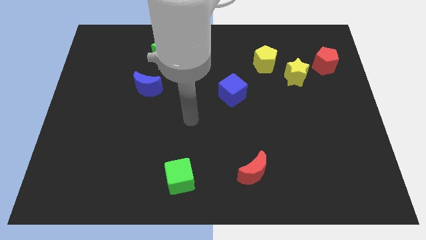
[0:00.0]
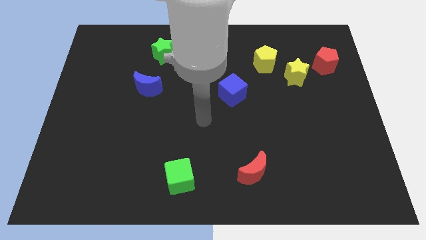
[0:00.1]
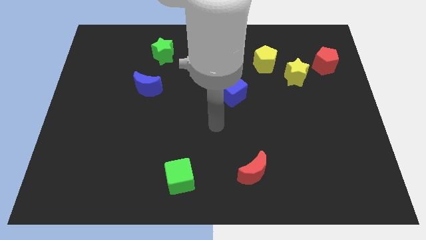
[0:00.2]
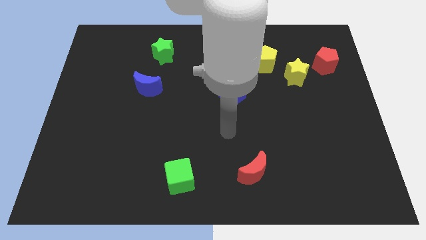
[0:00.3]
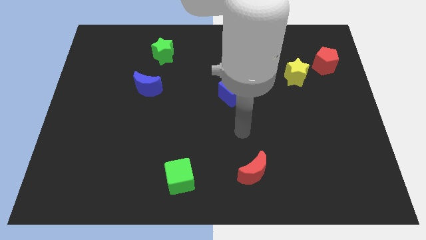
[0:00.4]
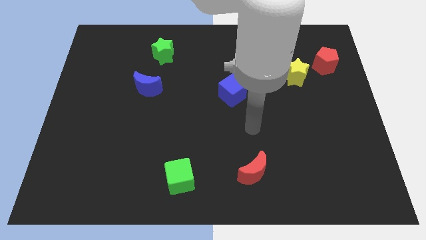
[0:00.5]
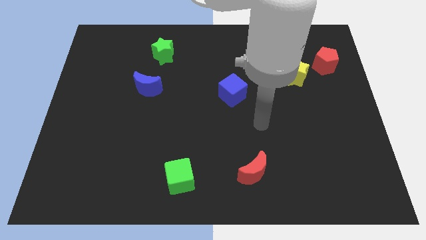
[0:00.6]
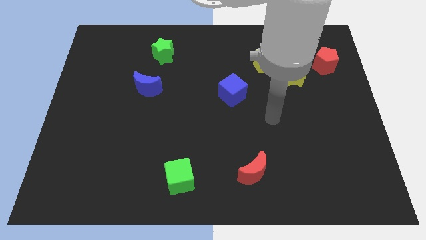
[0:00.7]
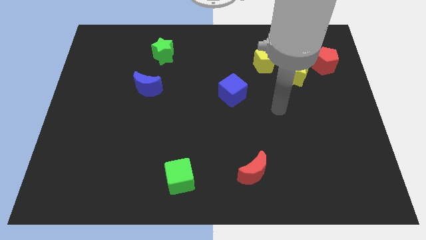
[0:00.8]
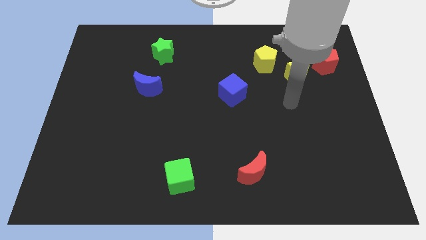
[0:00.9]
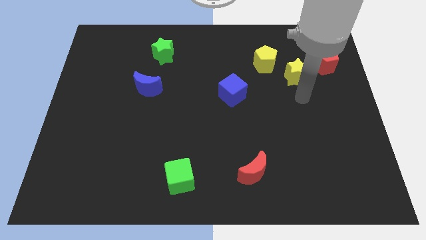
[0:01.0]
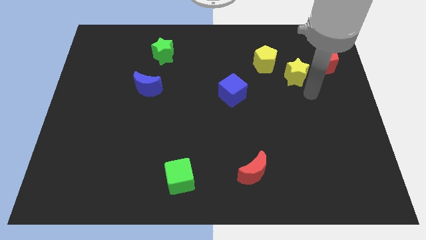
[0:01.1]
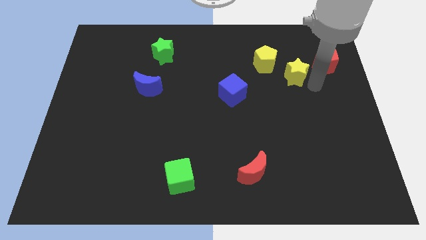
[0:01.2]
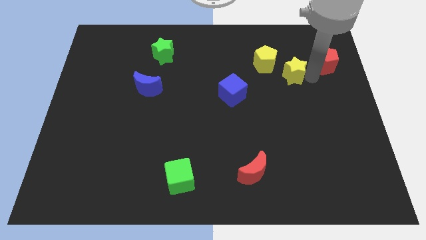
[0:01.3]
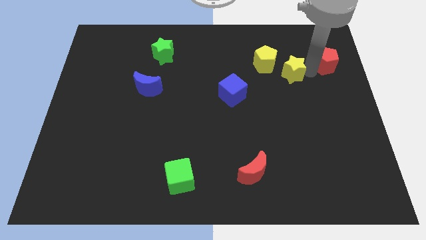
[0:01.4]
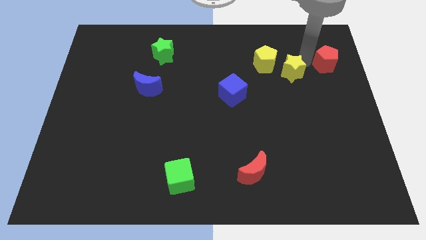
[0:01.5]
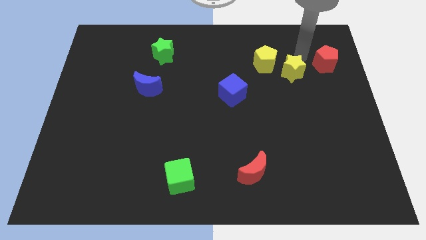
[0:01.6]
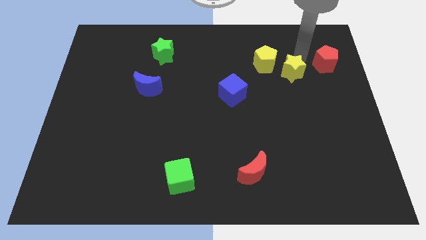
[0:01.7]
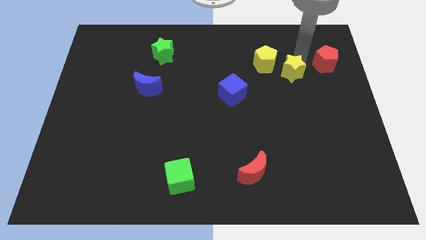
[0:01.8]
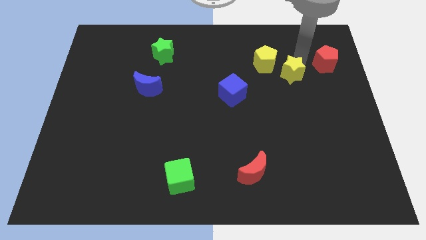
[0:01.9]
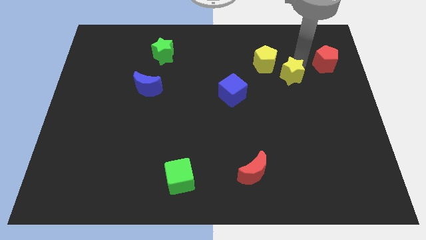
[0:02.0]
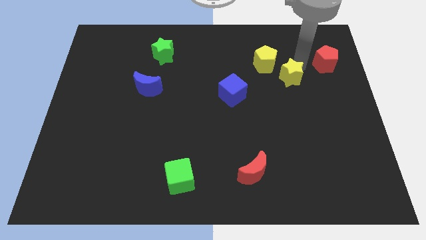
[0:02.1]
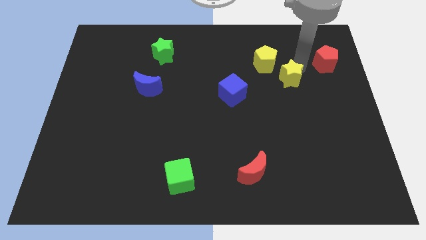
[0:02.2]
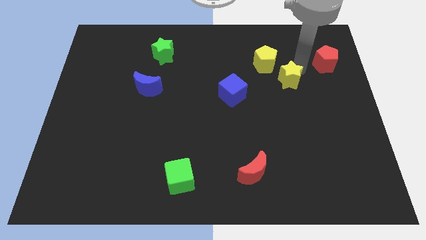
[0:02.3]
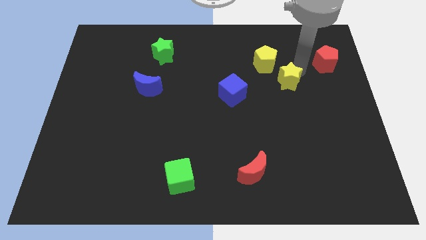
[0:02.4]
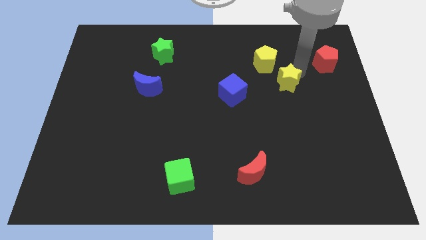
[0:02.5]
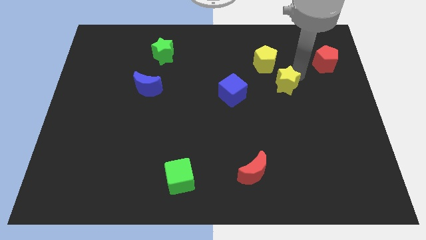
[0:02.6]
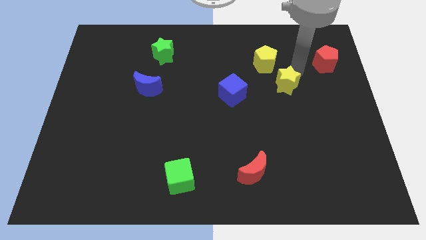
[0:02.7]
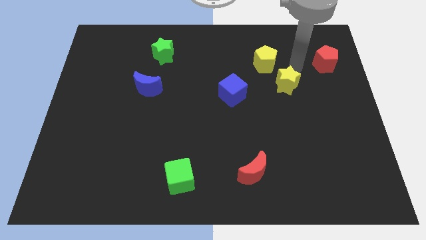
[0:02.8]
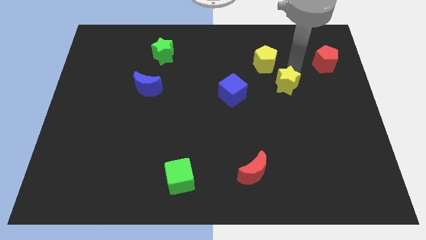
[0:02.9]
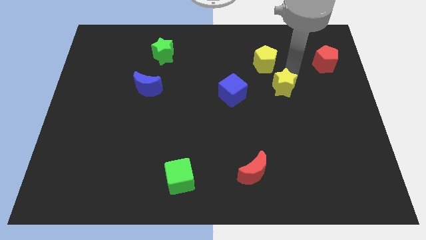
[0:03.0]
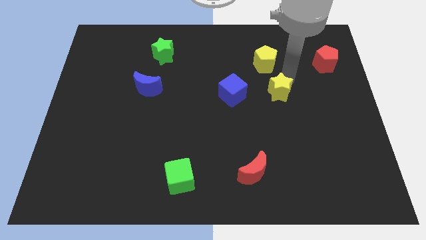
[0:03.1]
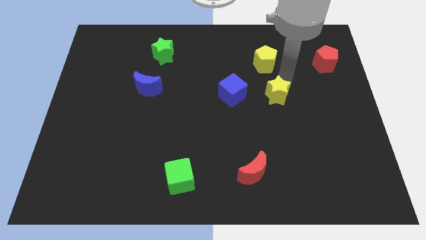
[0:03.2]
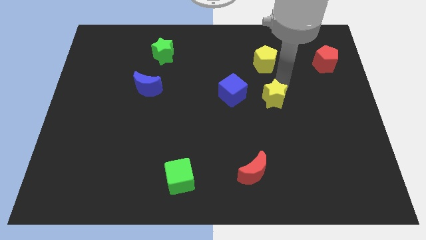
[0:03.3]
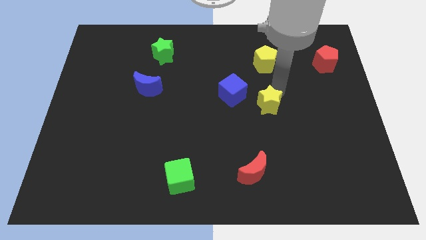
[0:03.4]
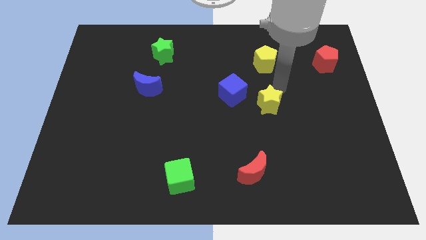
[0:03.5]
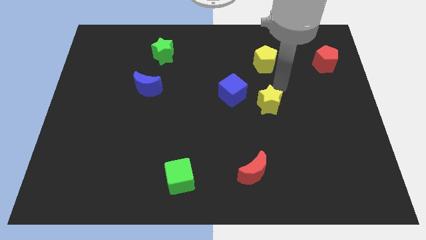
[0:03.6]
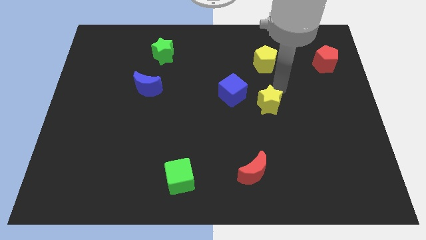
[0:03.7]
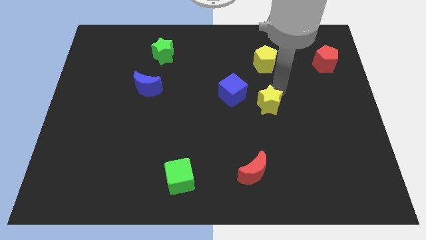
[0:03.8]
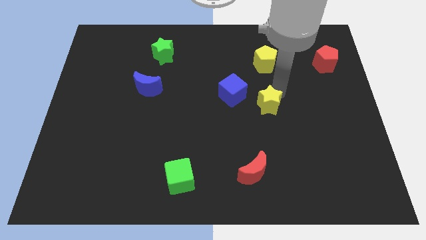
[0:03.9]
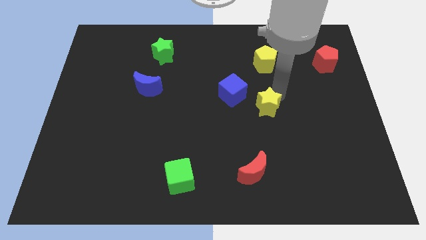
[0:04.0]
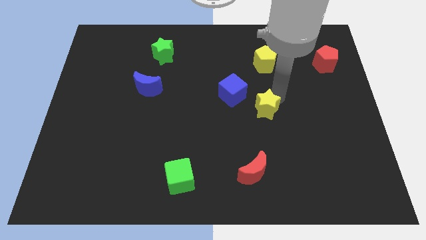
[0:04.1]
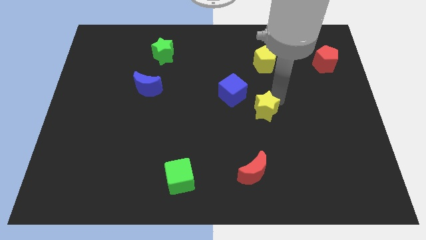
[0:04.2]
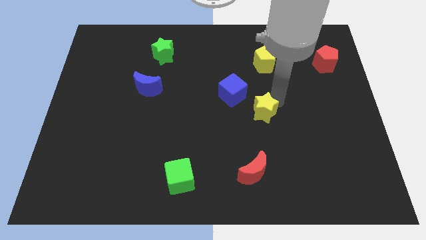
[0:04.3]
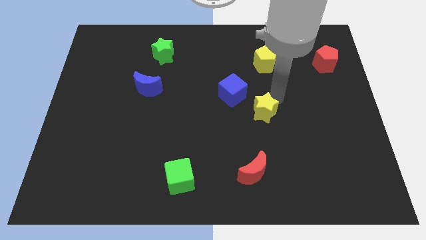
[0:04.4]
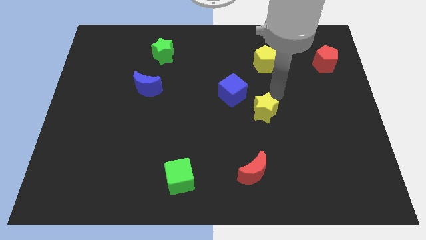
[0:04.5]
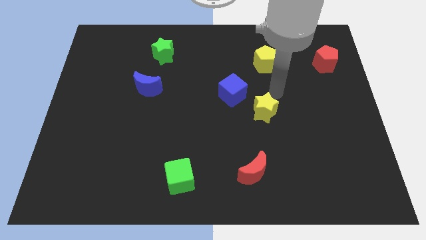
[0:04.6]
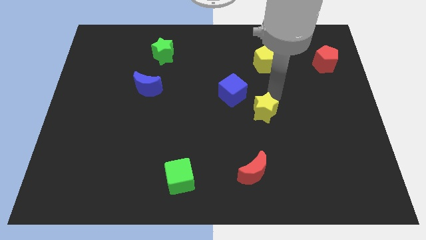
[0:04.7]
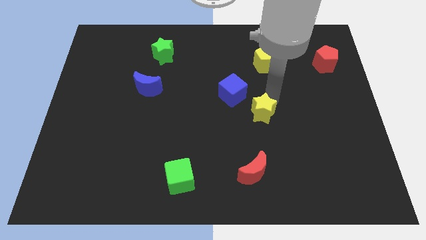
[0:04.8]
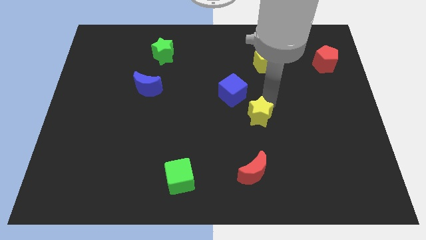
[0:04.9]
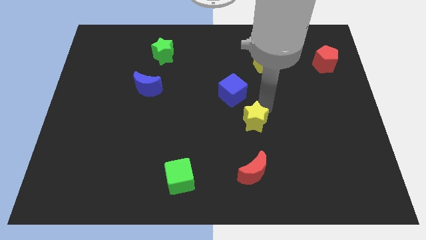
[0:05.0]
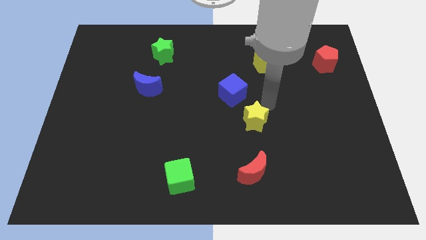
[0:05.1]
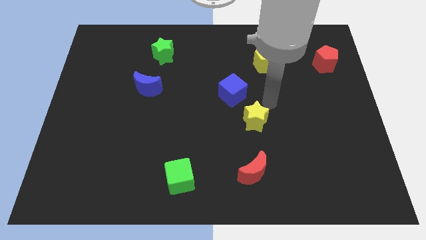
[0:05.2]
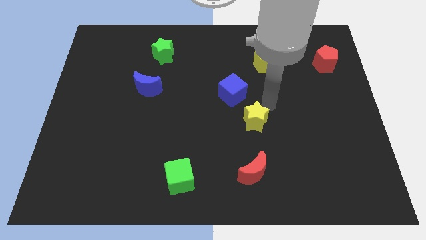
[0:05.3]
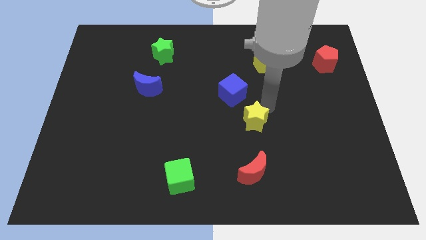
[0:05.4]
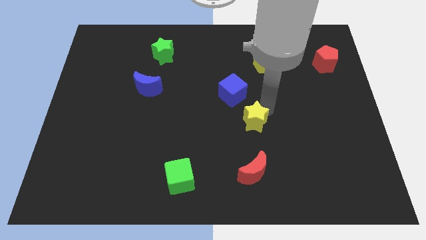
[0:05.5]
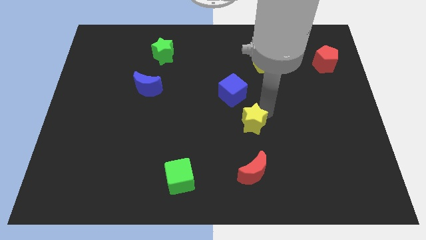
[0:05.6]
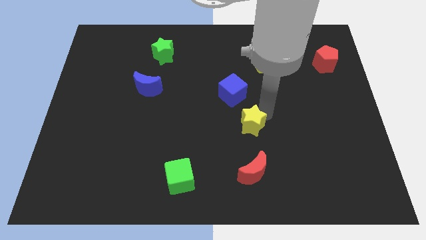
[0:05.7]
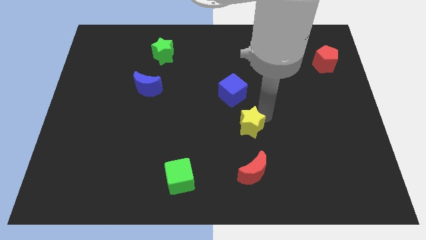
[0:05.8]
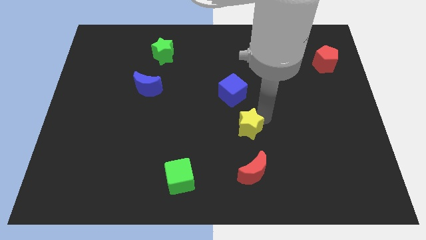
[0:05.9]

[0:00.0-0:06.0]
push the yellow star downwards and left

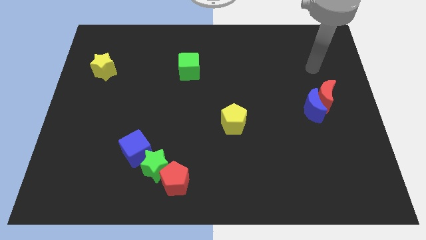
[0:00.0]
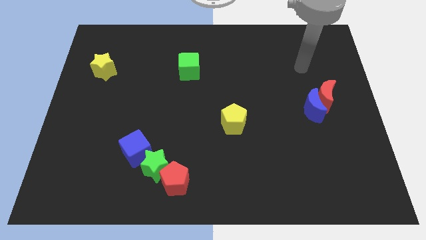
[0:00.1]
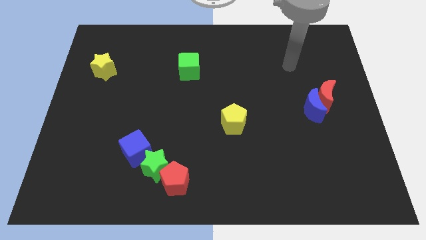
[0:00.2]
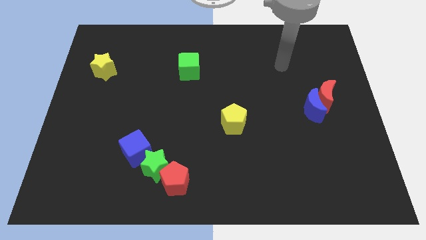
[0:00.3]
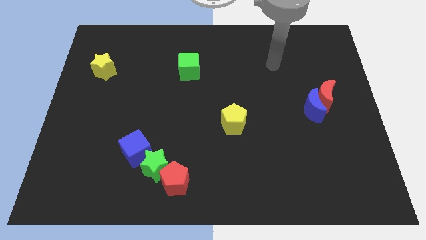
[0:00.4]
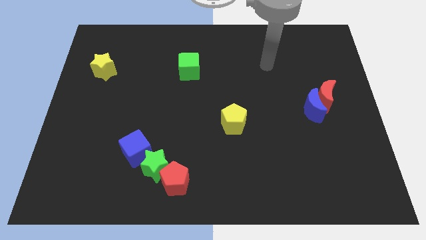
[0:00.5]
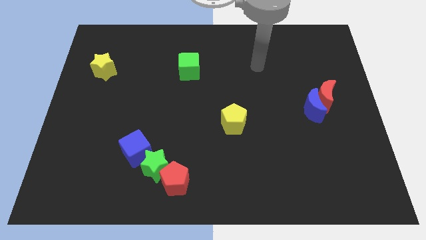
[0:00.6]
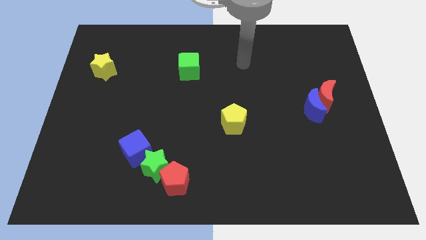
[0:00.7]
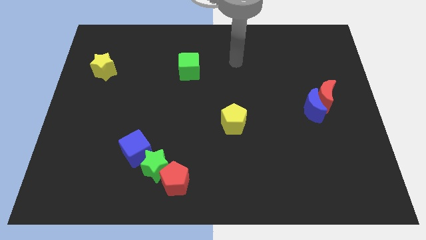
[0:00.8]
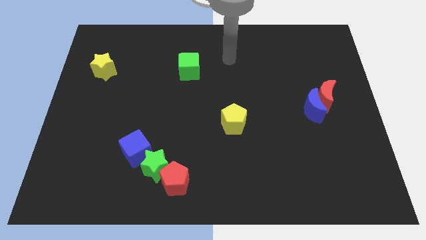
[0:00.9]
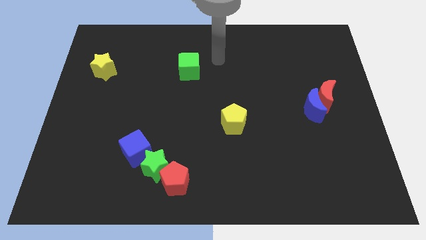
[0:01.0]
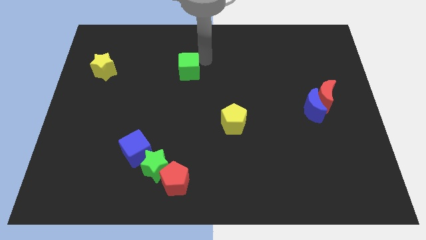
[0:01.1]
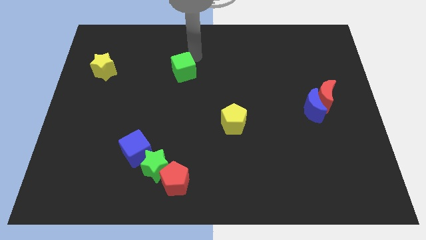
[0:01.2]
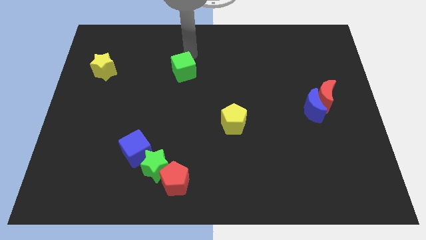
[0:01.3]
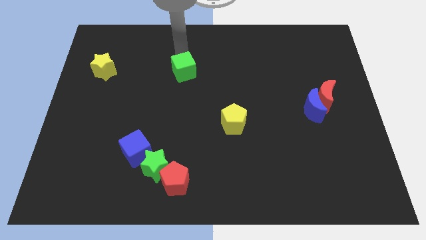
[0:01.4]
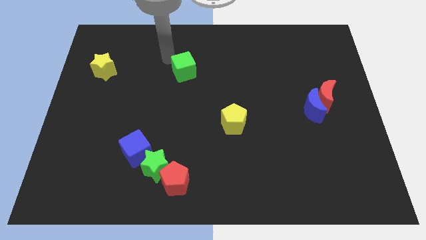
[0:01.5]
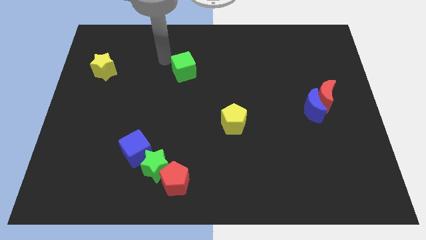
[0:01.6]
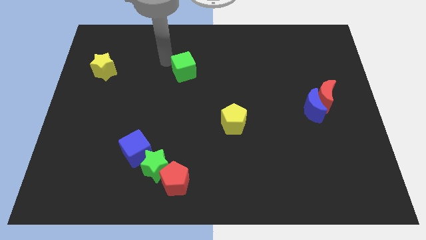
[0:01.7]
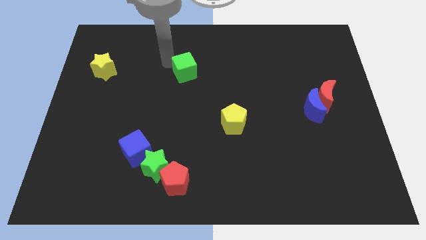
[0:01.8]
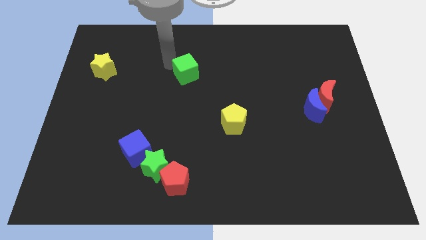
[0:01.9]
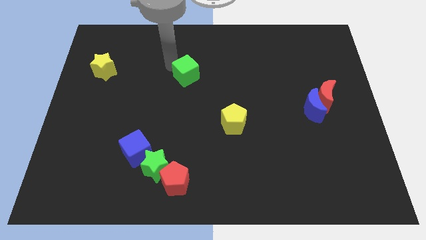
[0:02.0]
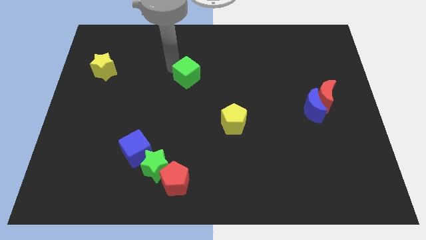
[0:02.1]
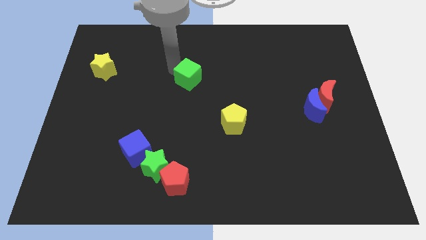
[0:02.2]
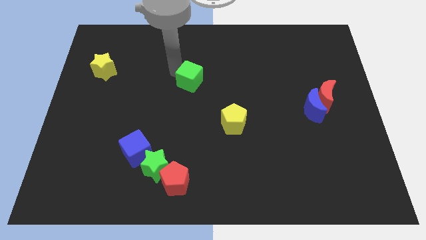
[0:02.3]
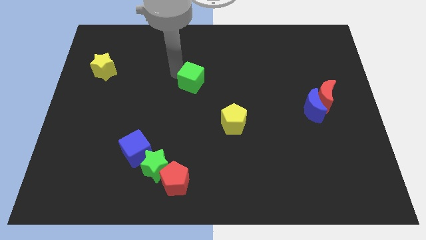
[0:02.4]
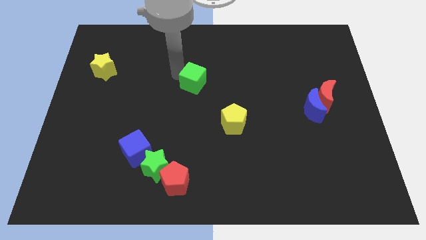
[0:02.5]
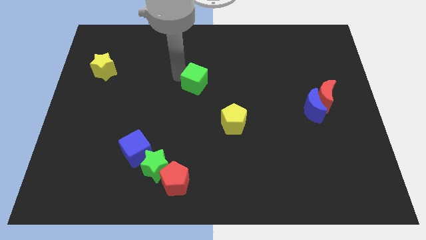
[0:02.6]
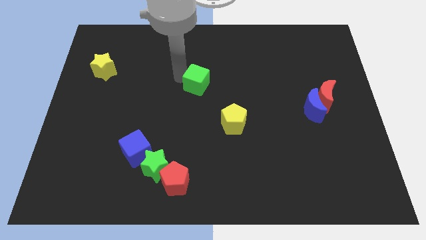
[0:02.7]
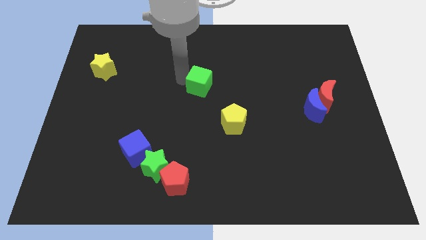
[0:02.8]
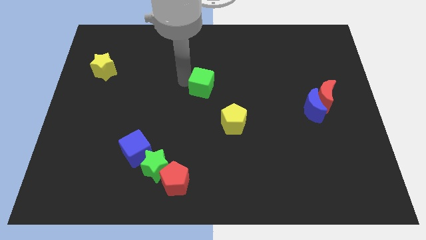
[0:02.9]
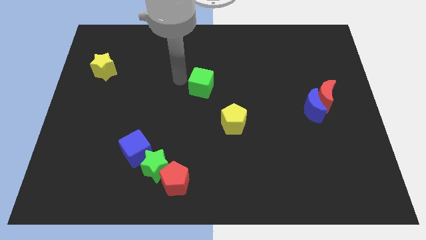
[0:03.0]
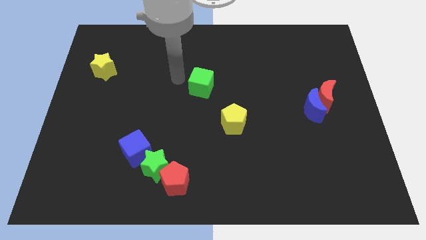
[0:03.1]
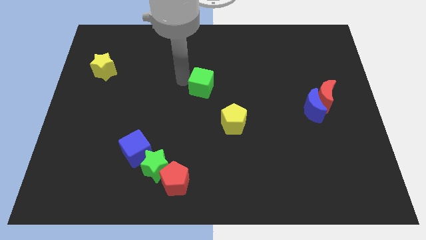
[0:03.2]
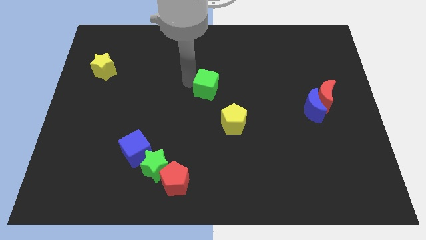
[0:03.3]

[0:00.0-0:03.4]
slightly slide the green cube down and to the right diagonally
